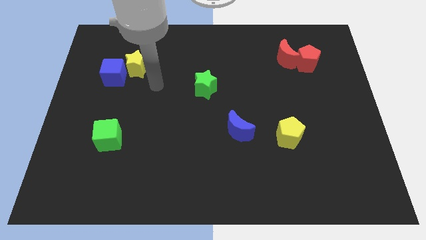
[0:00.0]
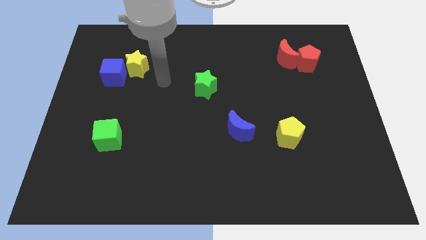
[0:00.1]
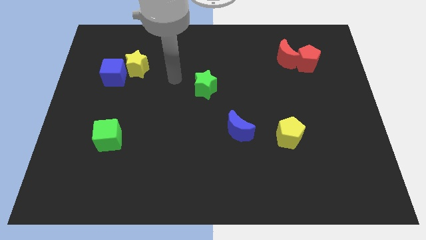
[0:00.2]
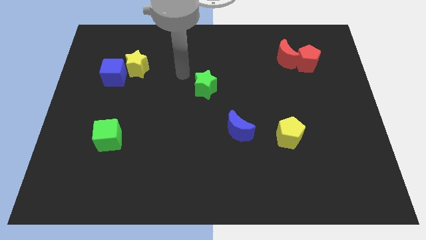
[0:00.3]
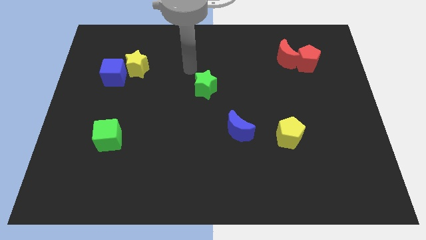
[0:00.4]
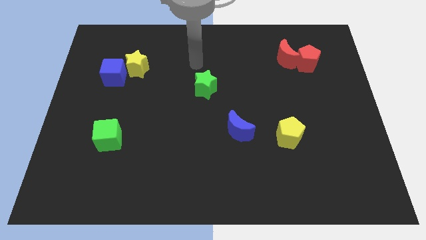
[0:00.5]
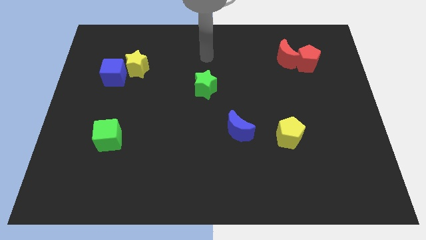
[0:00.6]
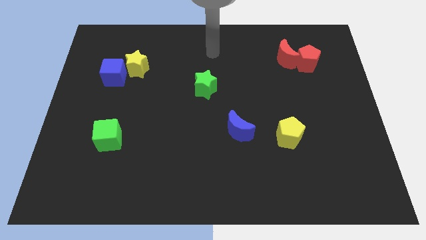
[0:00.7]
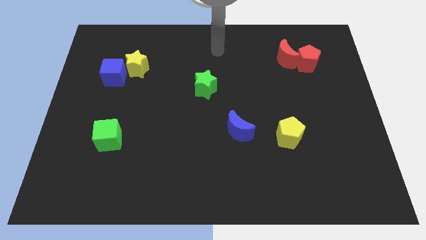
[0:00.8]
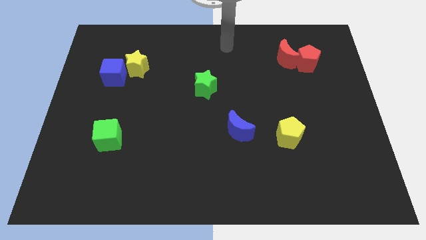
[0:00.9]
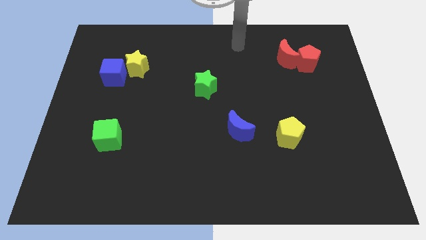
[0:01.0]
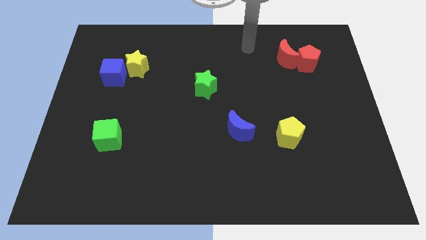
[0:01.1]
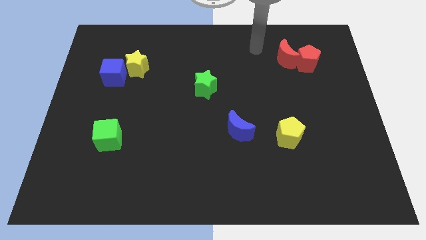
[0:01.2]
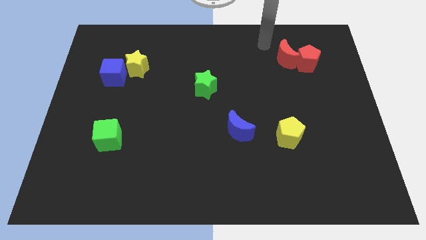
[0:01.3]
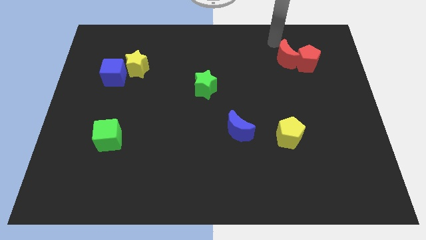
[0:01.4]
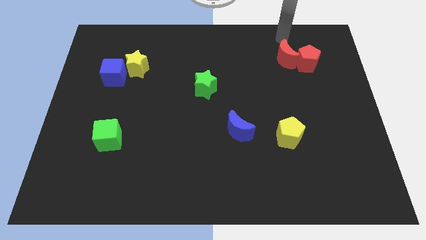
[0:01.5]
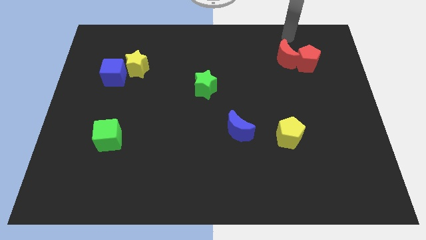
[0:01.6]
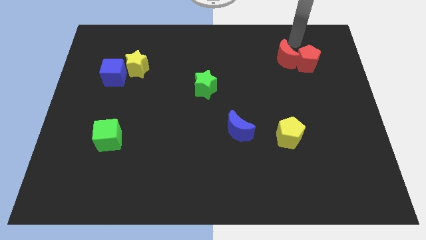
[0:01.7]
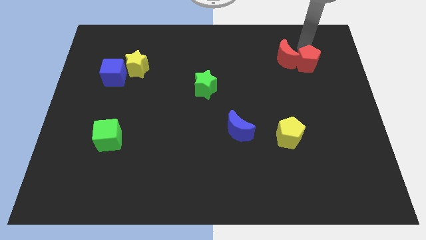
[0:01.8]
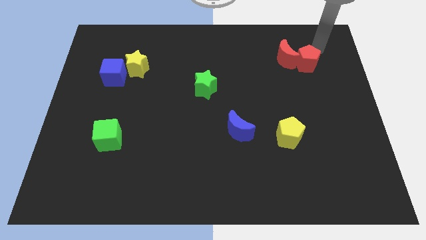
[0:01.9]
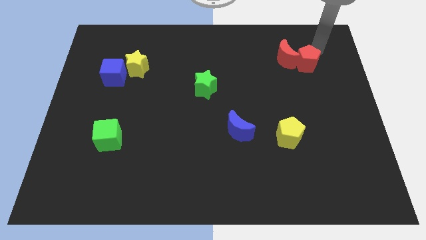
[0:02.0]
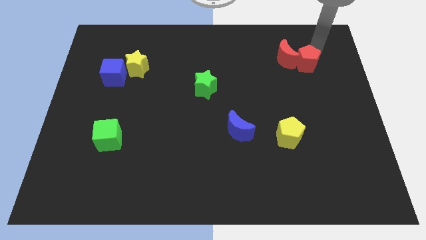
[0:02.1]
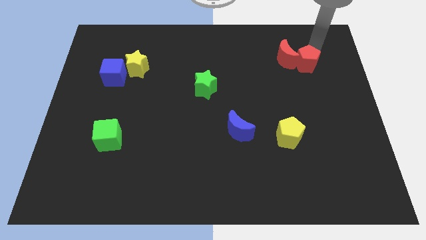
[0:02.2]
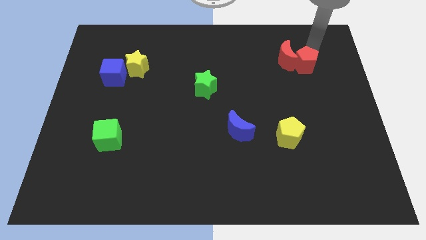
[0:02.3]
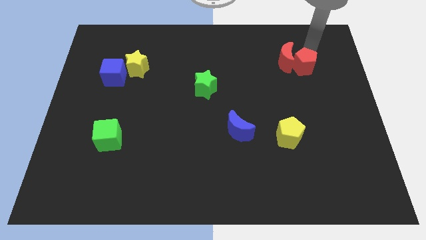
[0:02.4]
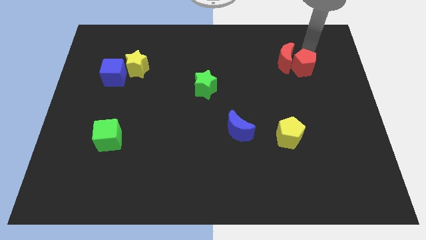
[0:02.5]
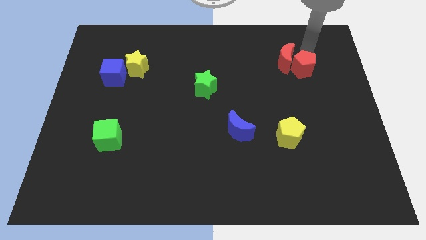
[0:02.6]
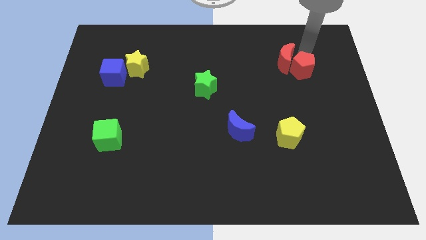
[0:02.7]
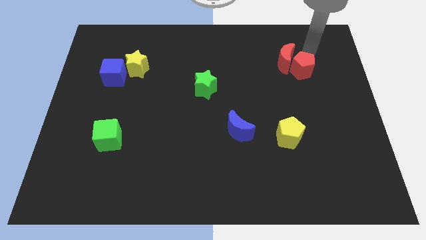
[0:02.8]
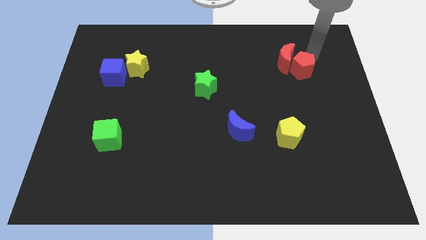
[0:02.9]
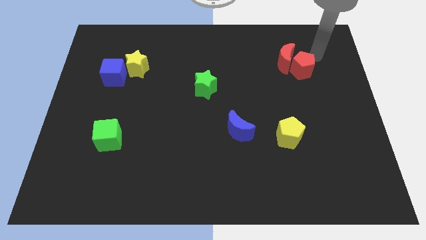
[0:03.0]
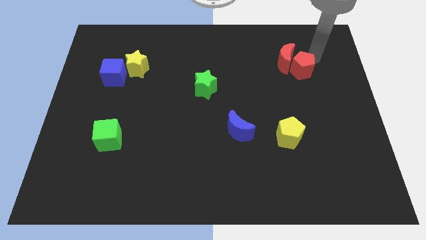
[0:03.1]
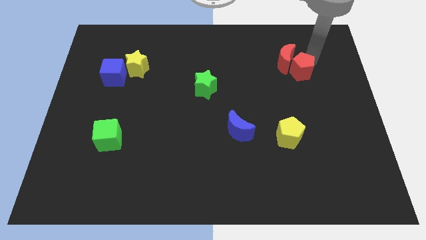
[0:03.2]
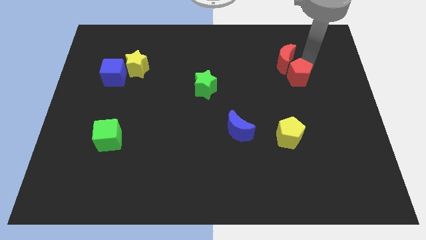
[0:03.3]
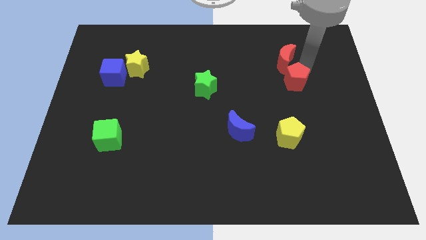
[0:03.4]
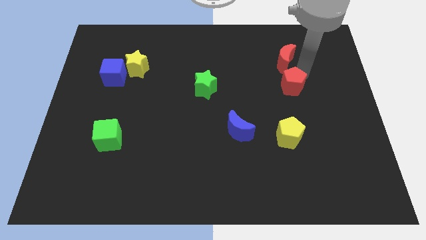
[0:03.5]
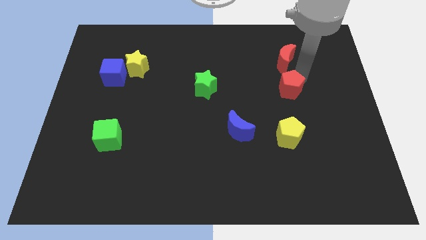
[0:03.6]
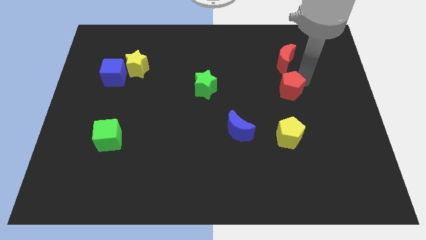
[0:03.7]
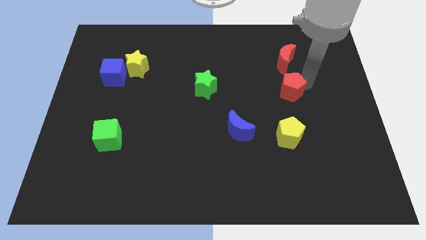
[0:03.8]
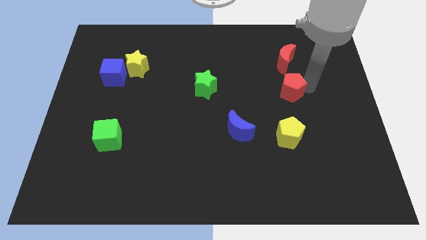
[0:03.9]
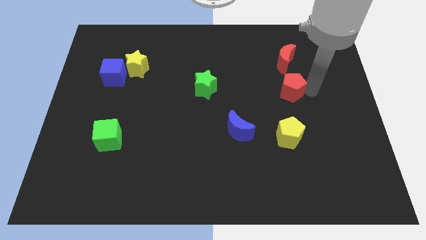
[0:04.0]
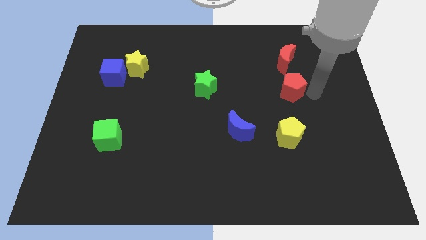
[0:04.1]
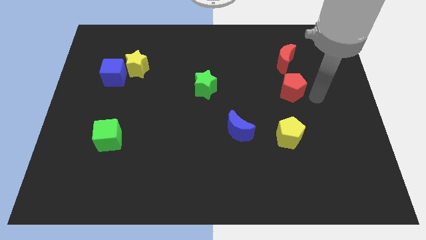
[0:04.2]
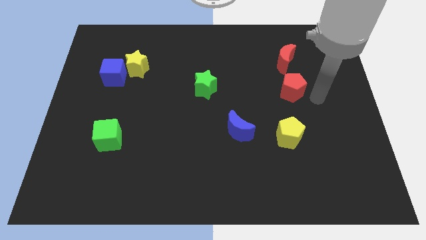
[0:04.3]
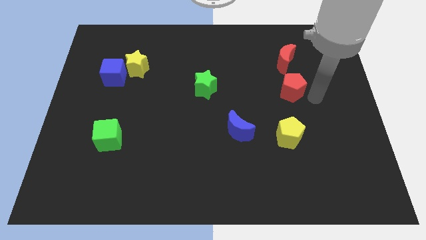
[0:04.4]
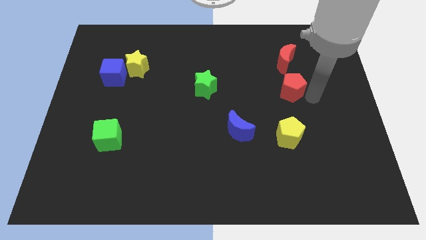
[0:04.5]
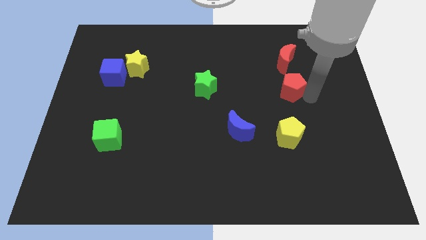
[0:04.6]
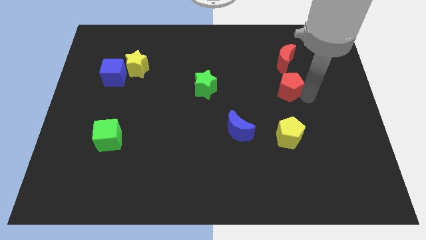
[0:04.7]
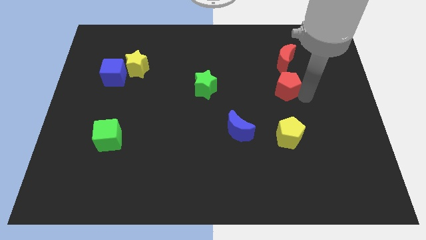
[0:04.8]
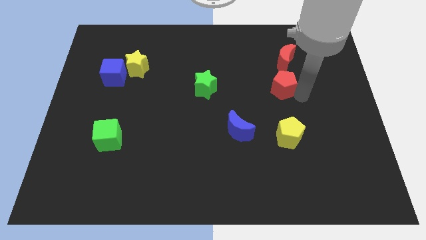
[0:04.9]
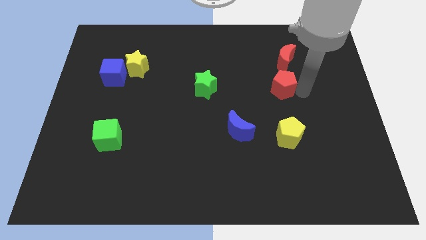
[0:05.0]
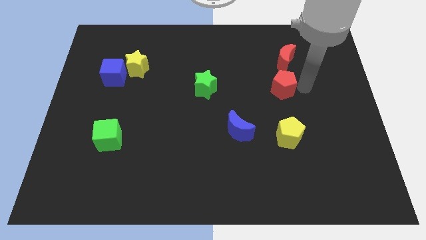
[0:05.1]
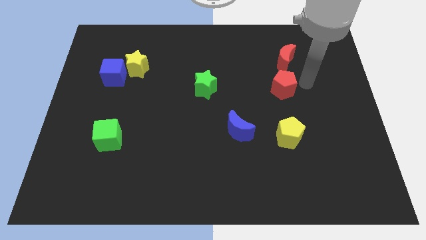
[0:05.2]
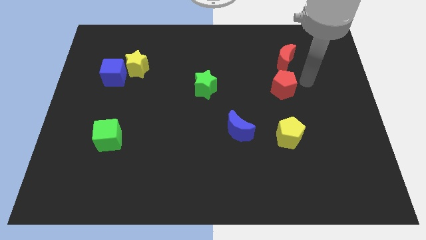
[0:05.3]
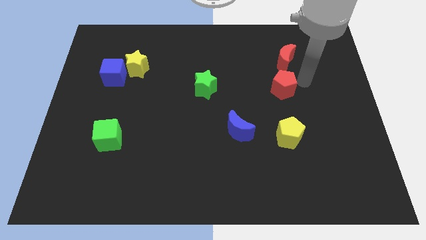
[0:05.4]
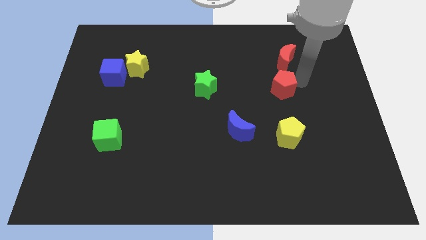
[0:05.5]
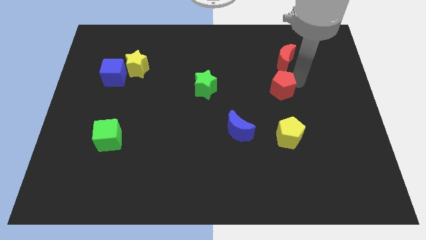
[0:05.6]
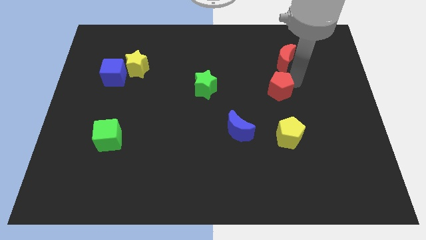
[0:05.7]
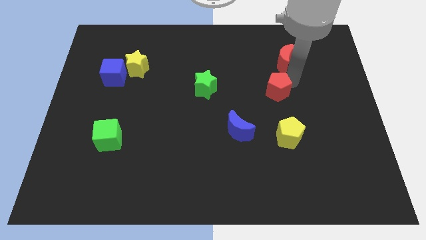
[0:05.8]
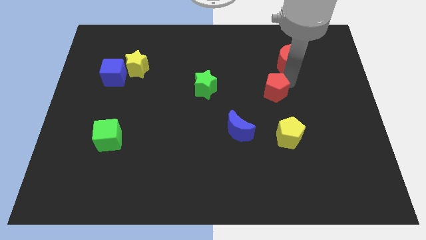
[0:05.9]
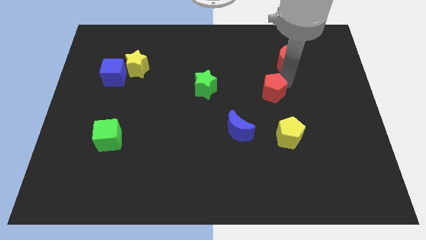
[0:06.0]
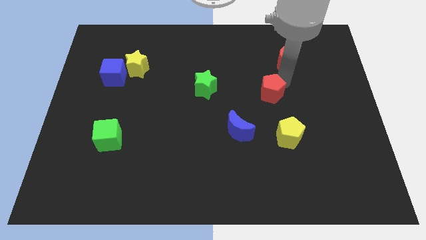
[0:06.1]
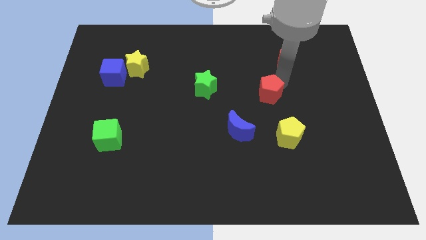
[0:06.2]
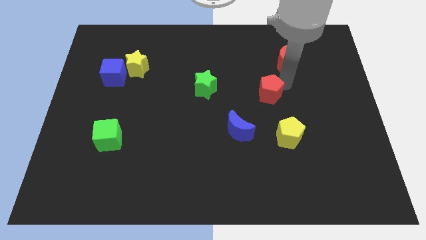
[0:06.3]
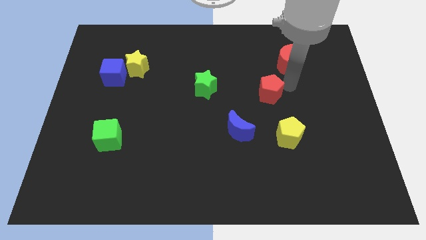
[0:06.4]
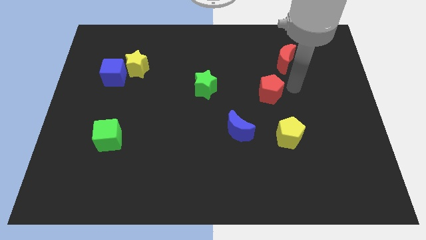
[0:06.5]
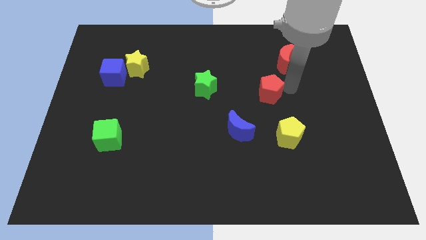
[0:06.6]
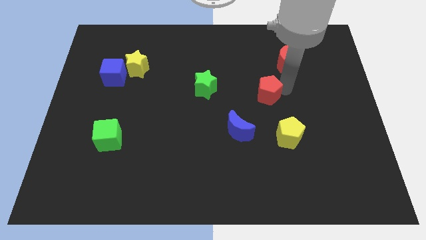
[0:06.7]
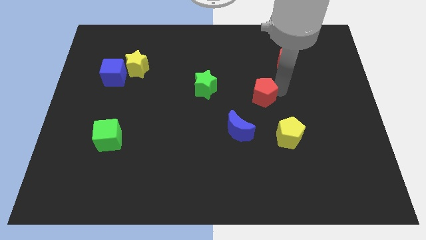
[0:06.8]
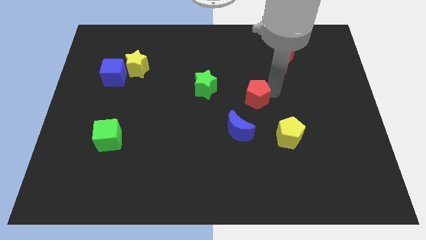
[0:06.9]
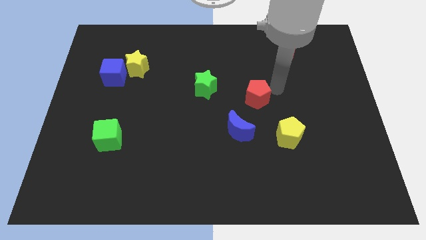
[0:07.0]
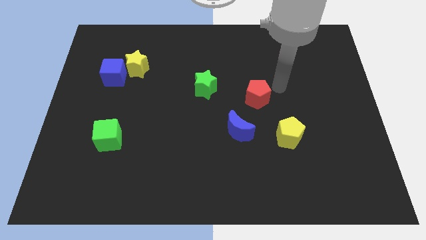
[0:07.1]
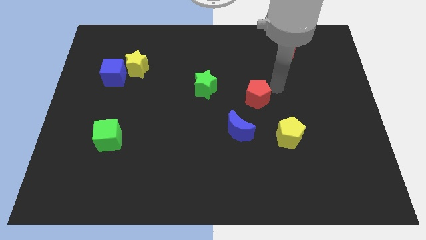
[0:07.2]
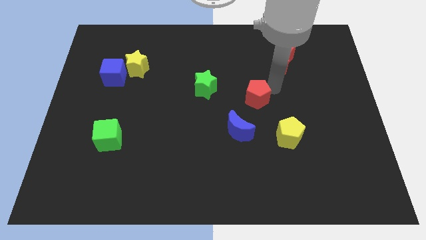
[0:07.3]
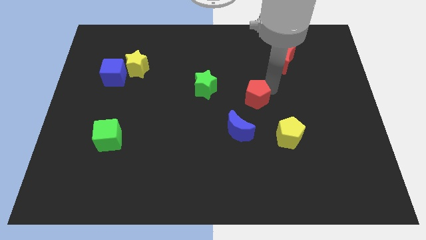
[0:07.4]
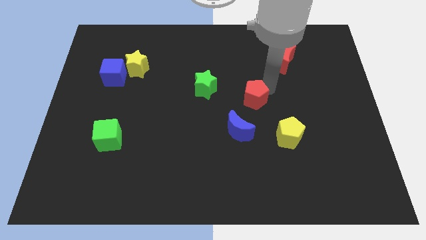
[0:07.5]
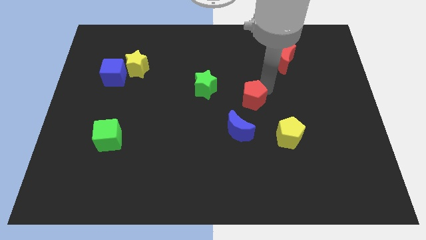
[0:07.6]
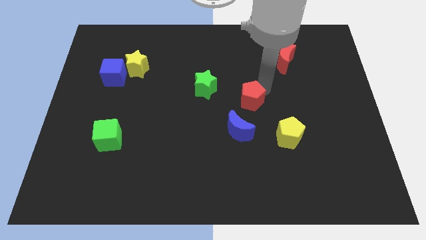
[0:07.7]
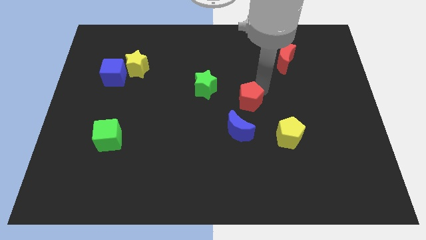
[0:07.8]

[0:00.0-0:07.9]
move the red pentagon down and left

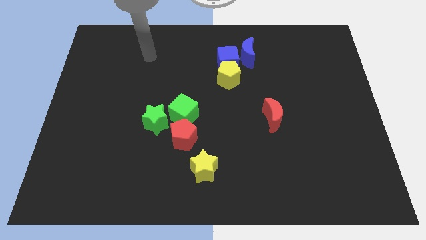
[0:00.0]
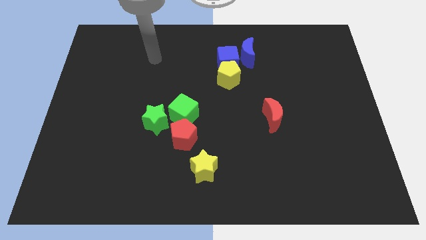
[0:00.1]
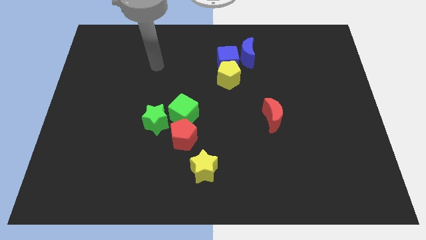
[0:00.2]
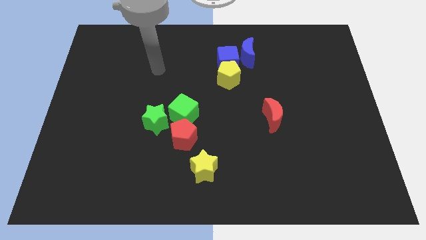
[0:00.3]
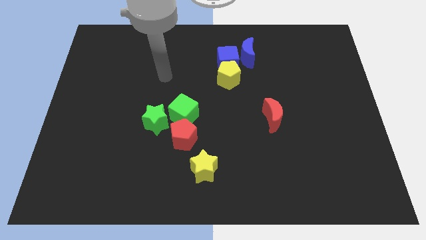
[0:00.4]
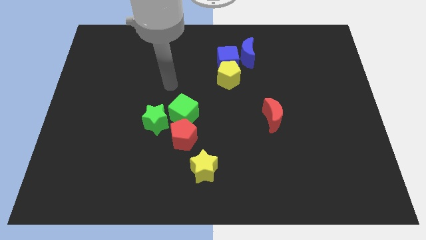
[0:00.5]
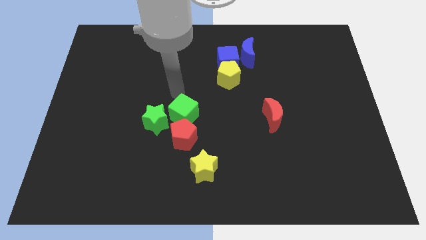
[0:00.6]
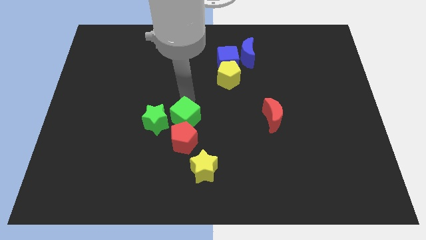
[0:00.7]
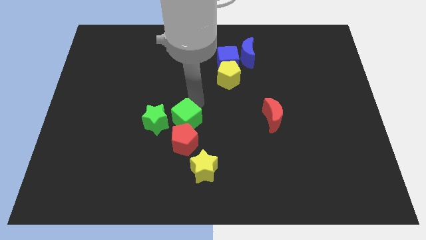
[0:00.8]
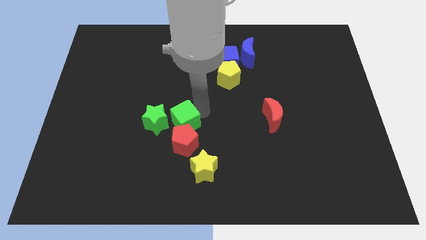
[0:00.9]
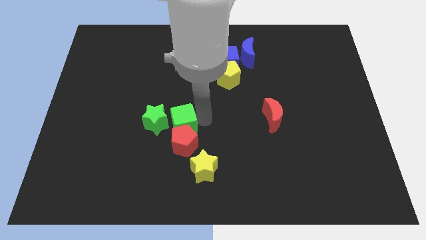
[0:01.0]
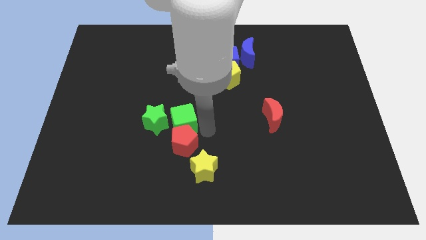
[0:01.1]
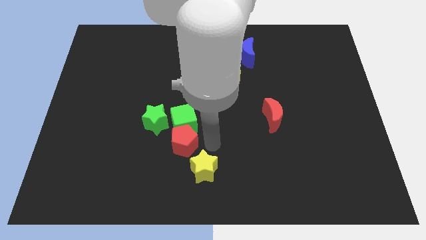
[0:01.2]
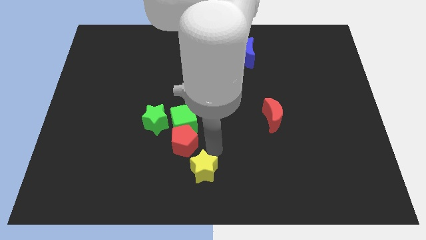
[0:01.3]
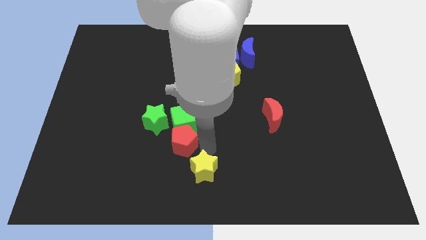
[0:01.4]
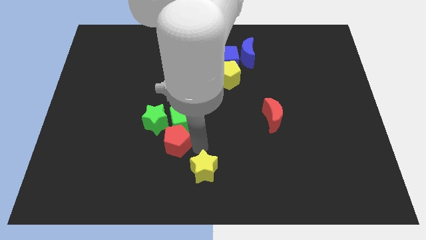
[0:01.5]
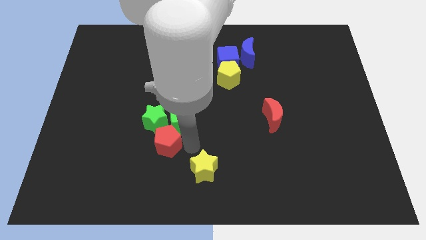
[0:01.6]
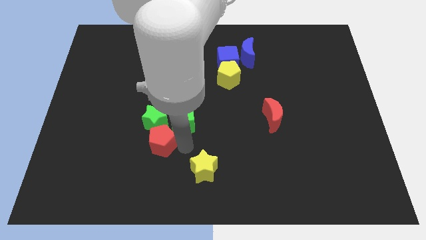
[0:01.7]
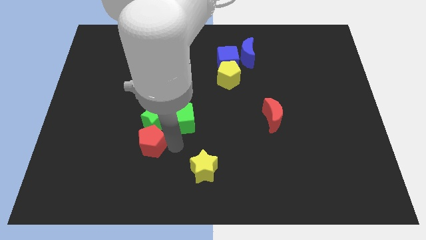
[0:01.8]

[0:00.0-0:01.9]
push the red pentagon to the left somewhat
